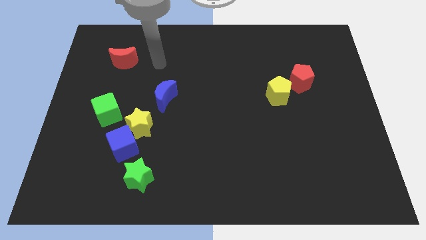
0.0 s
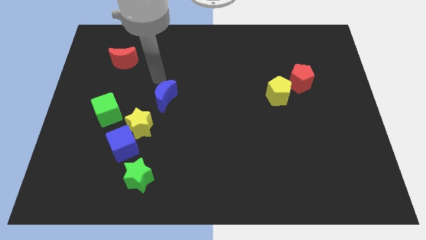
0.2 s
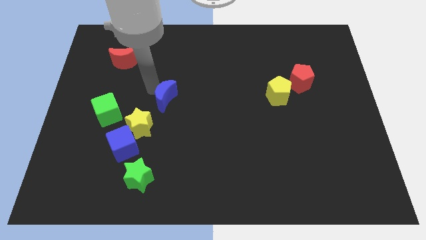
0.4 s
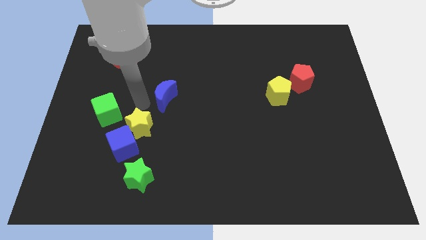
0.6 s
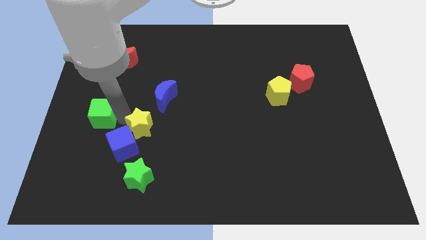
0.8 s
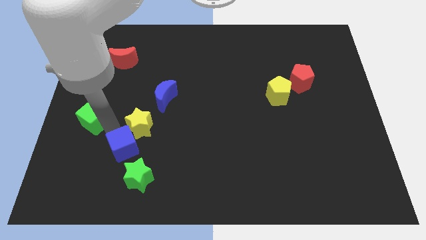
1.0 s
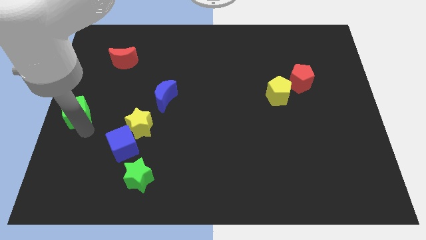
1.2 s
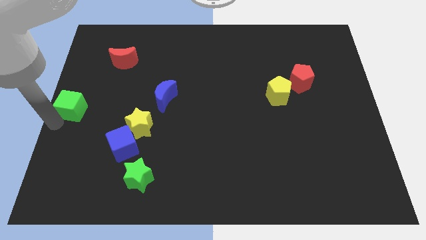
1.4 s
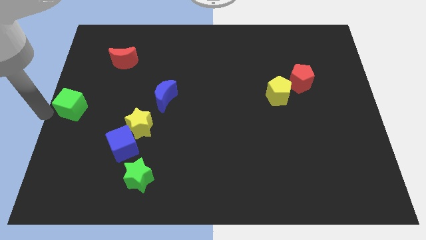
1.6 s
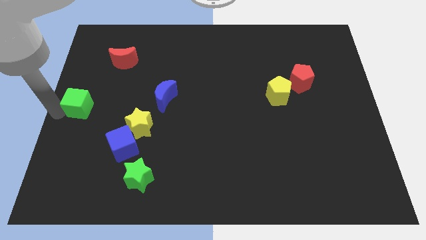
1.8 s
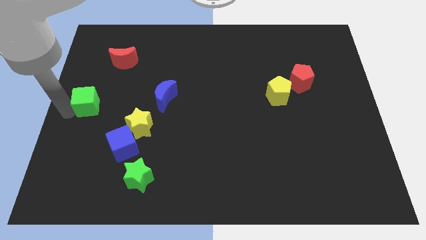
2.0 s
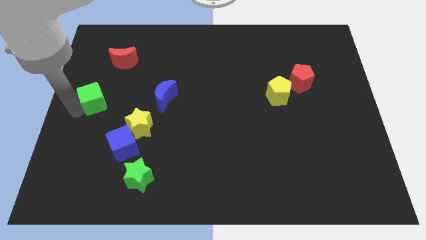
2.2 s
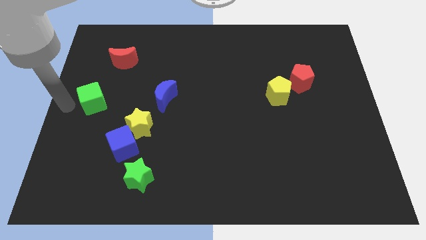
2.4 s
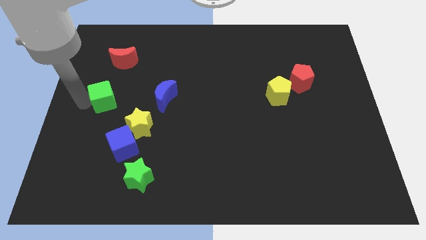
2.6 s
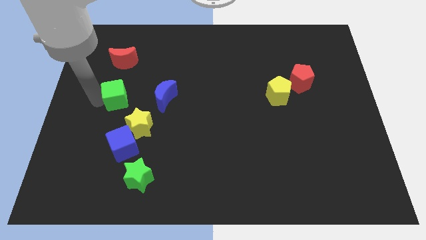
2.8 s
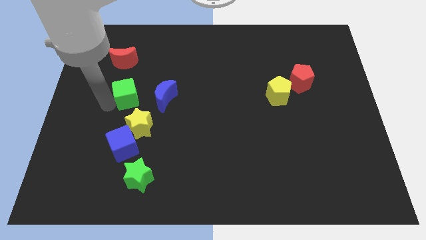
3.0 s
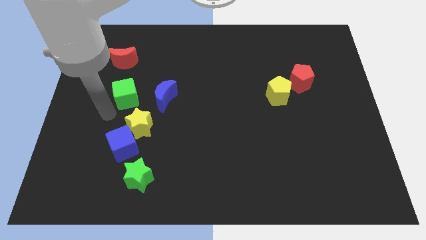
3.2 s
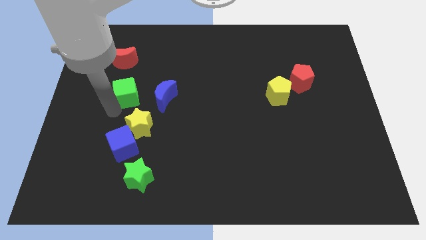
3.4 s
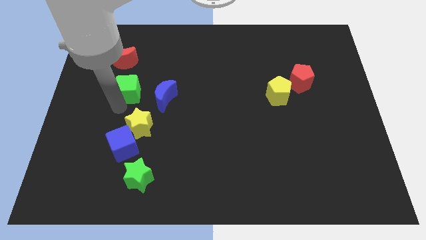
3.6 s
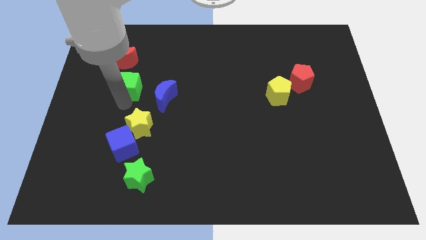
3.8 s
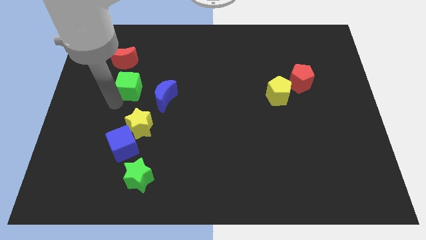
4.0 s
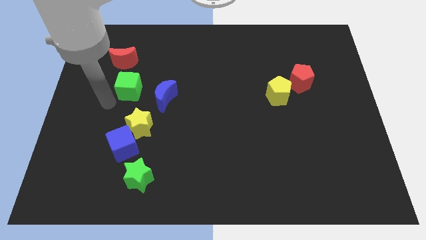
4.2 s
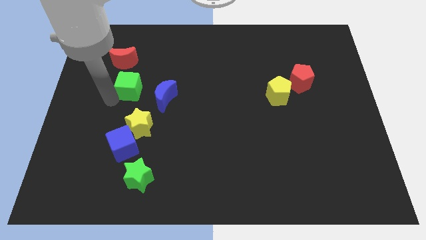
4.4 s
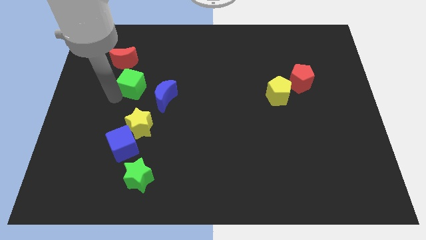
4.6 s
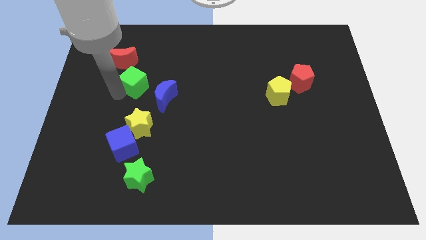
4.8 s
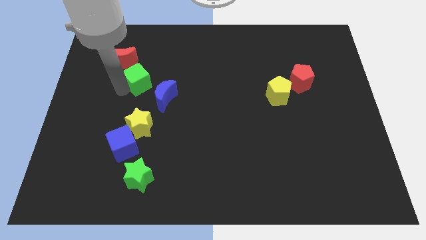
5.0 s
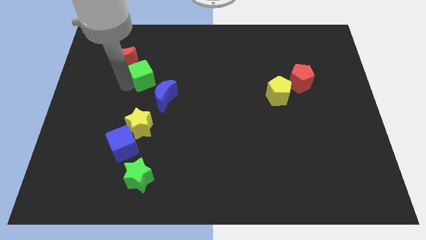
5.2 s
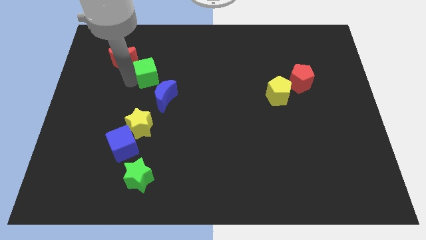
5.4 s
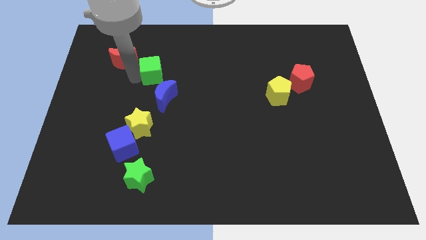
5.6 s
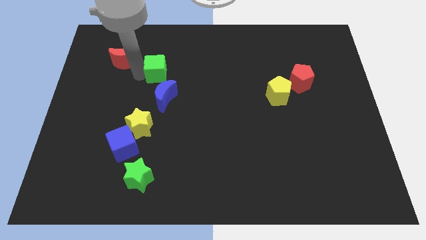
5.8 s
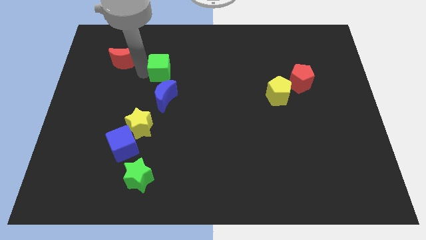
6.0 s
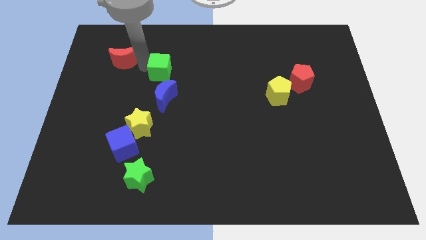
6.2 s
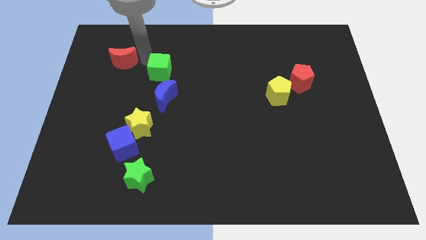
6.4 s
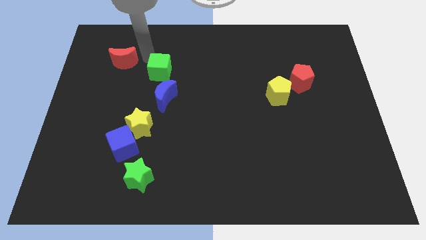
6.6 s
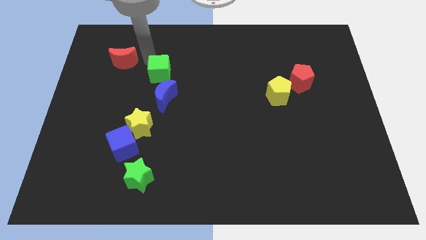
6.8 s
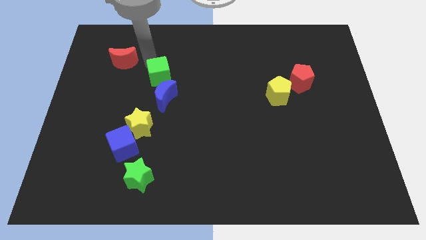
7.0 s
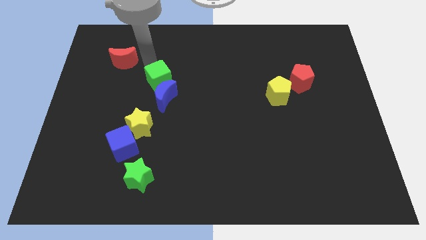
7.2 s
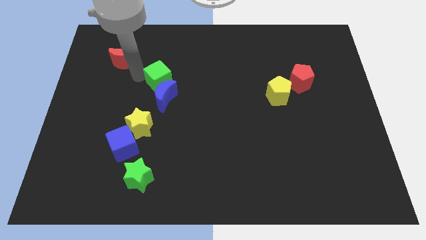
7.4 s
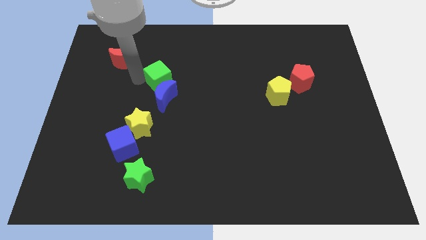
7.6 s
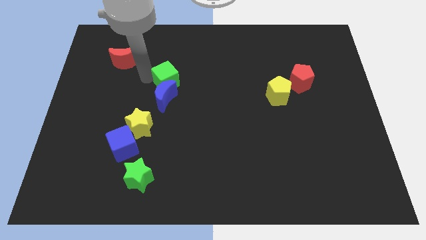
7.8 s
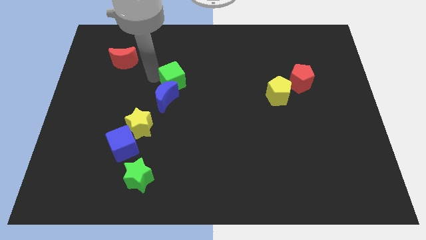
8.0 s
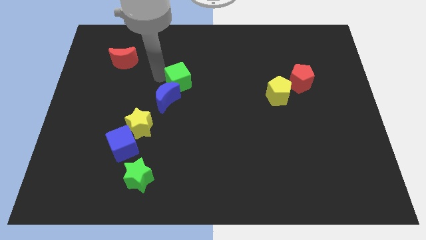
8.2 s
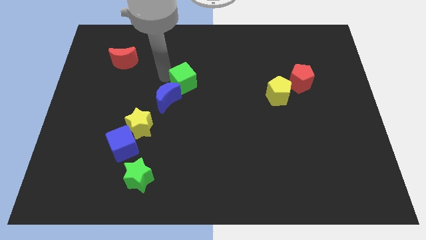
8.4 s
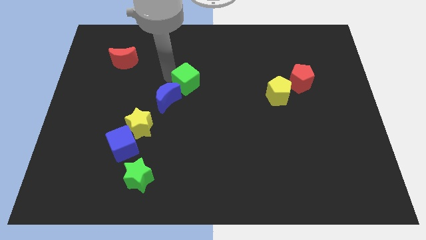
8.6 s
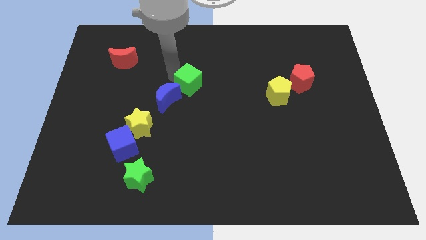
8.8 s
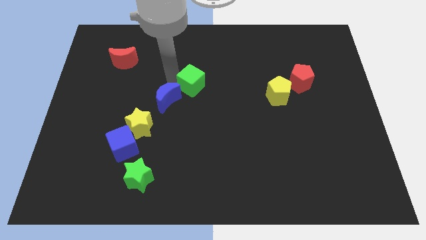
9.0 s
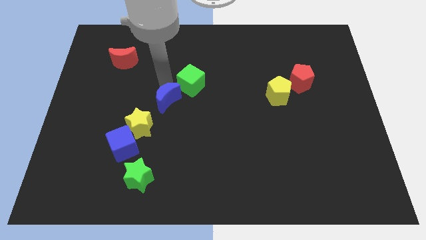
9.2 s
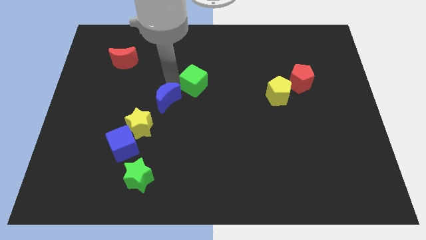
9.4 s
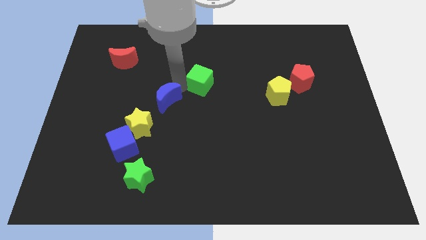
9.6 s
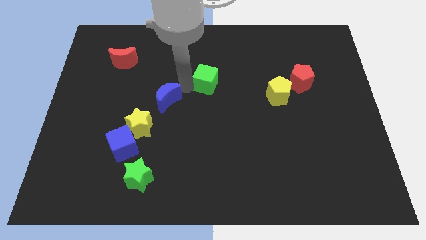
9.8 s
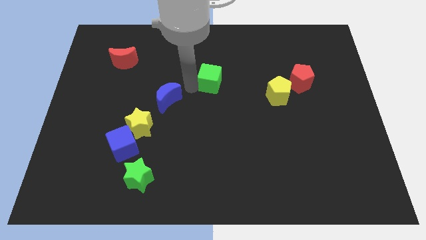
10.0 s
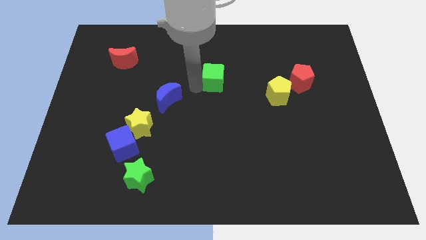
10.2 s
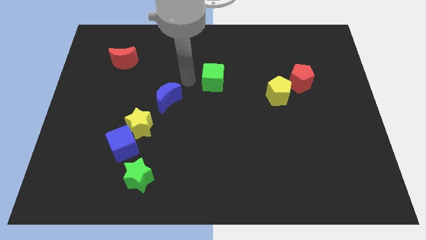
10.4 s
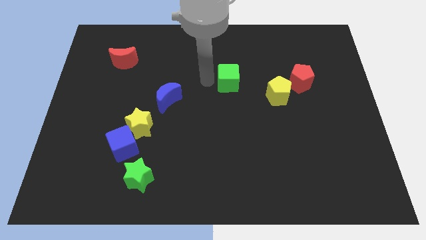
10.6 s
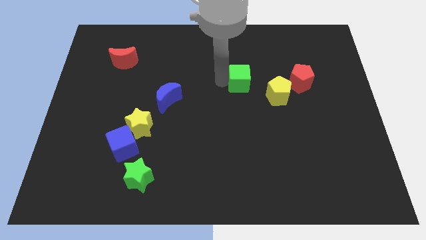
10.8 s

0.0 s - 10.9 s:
put the green cube just left of the red pentagon

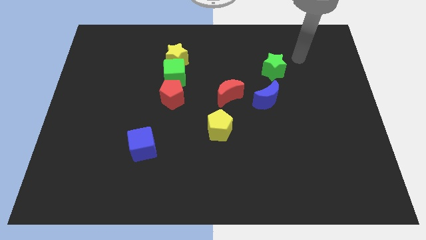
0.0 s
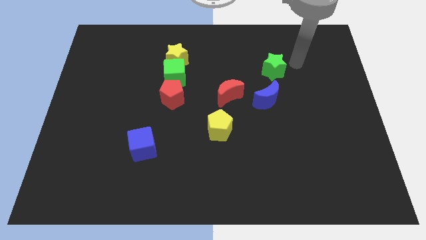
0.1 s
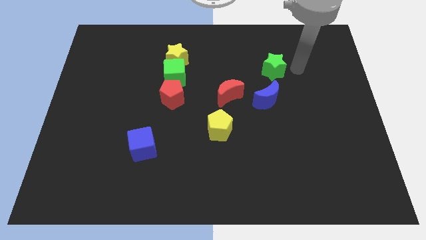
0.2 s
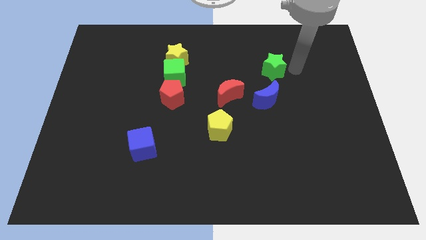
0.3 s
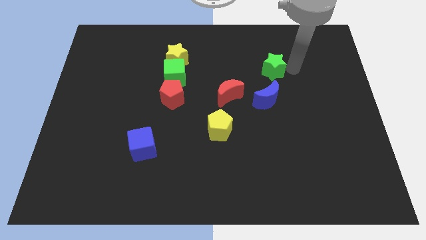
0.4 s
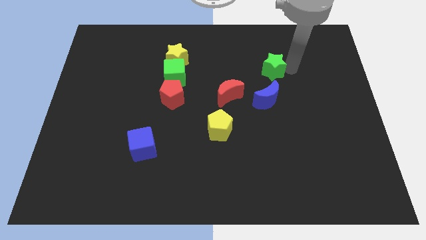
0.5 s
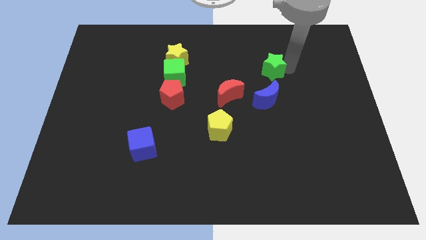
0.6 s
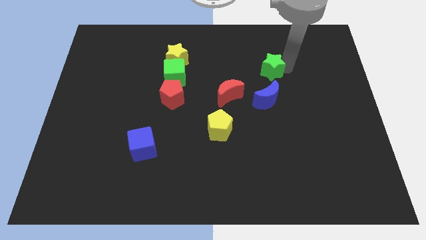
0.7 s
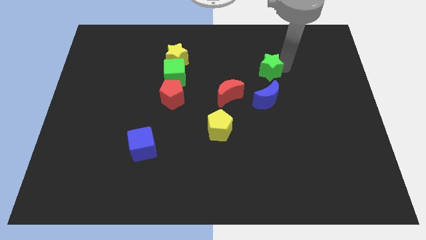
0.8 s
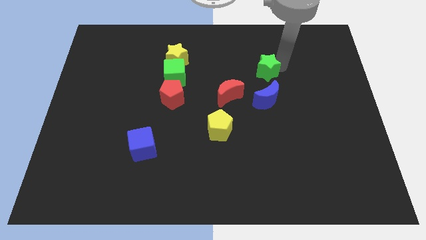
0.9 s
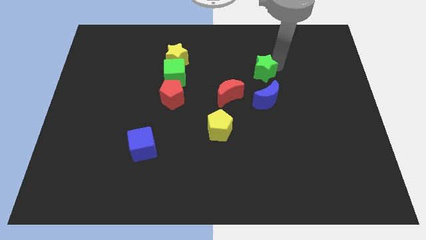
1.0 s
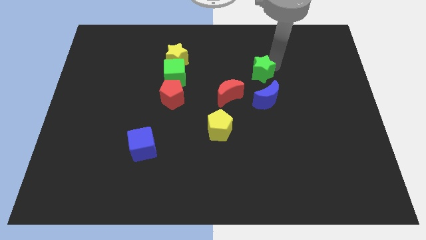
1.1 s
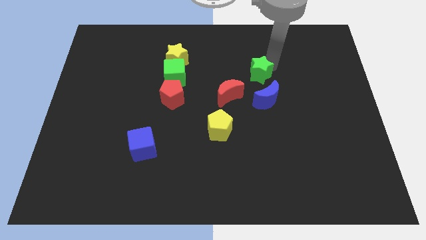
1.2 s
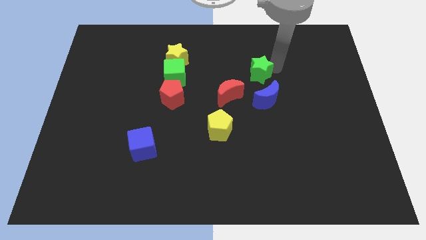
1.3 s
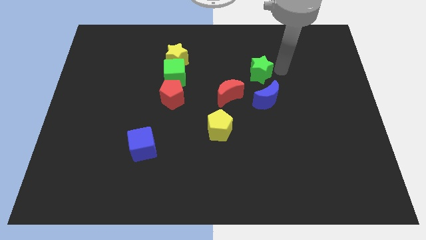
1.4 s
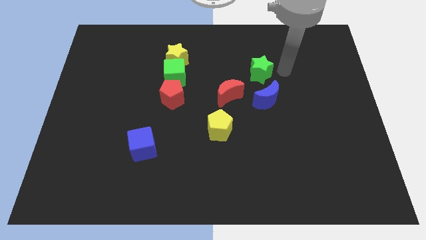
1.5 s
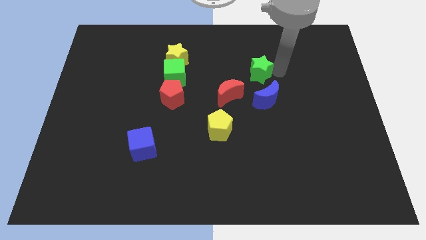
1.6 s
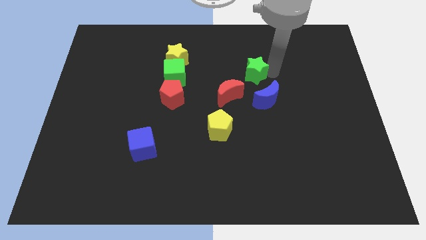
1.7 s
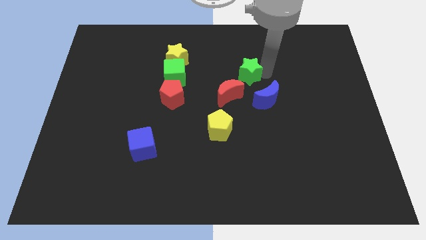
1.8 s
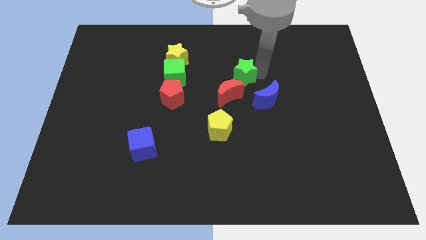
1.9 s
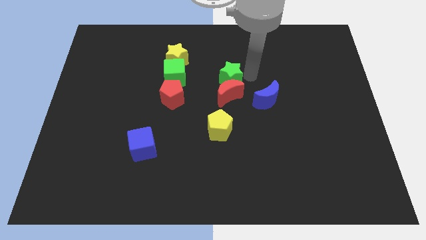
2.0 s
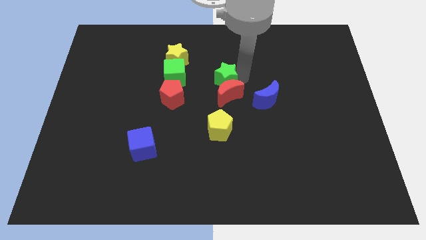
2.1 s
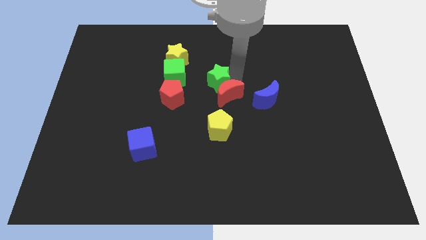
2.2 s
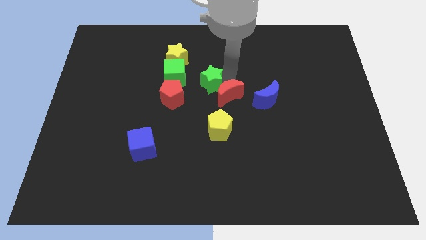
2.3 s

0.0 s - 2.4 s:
move the green star to the bottom right of the yellow star

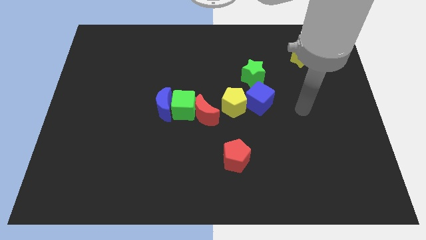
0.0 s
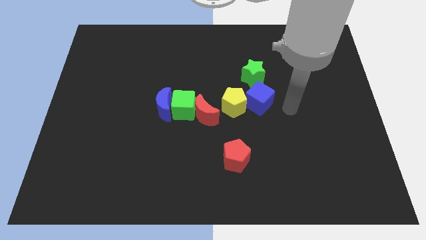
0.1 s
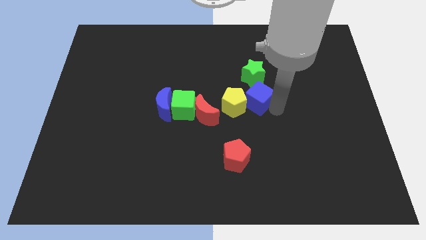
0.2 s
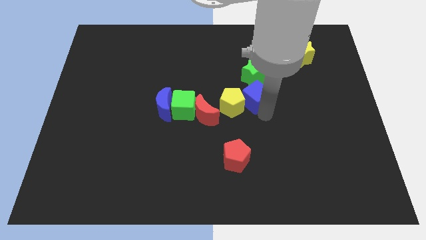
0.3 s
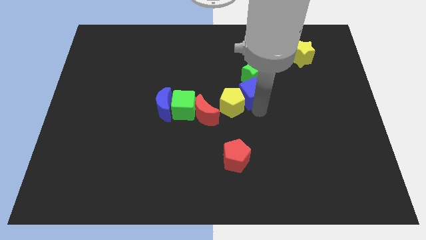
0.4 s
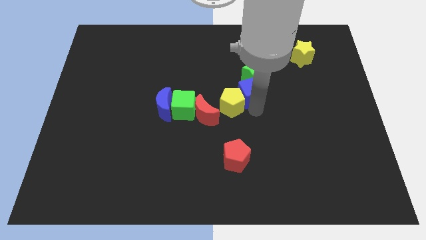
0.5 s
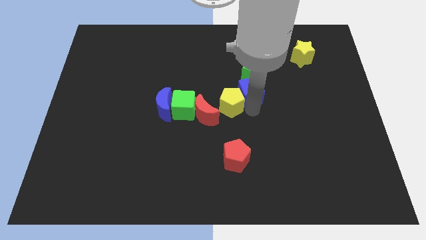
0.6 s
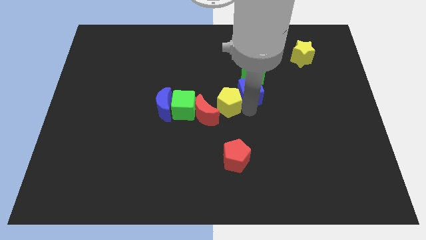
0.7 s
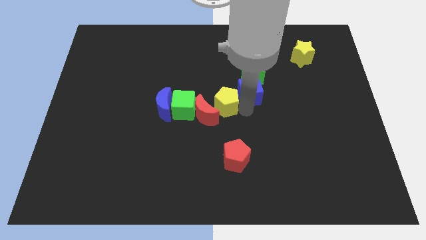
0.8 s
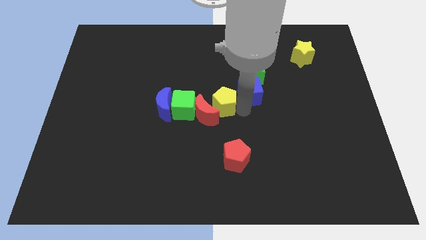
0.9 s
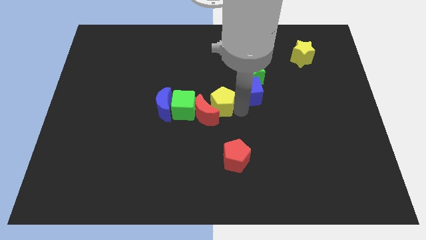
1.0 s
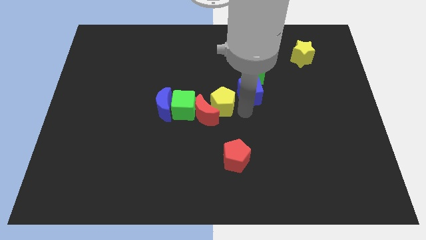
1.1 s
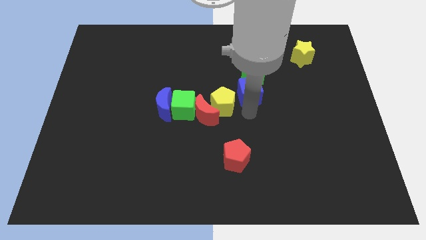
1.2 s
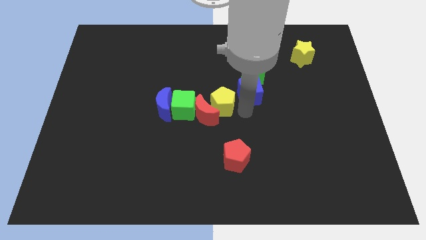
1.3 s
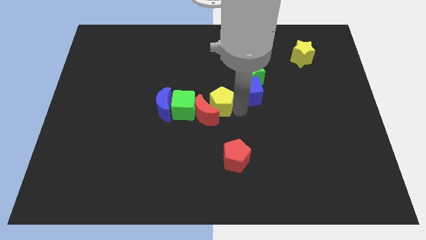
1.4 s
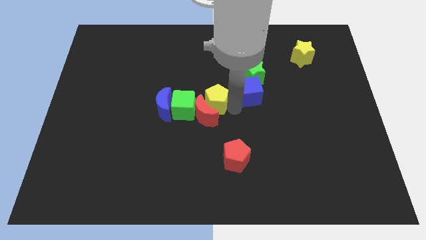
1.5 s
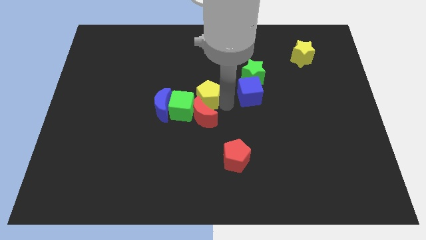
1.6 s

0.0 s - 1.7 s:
move the yellow pentagon to the top left of the red moon
